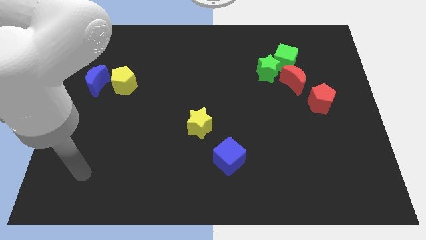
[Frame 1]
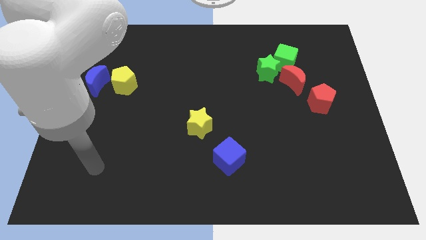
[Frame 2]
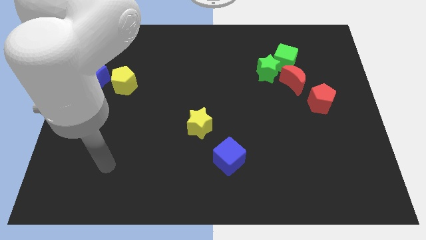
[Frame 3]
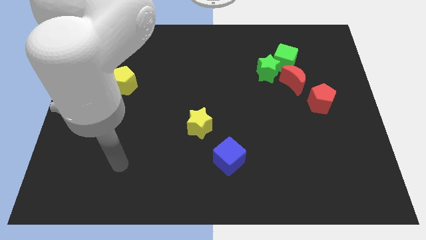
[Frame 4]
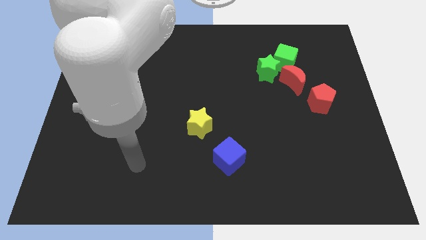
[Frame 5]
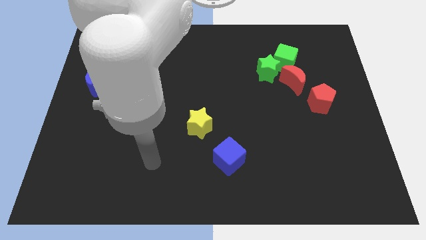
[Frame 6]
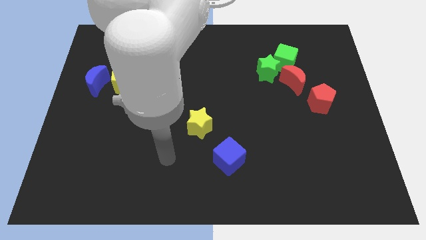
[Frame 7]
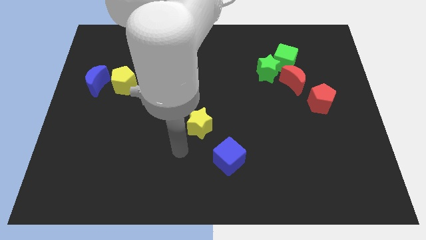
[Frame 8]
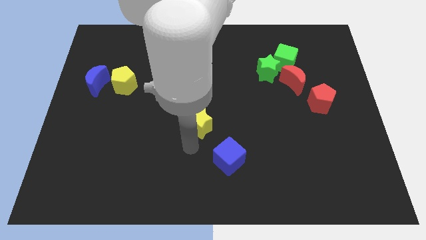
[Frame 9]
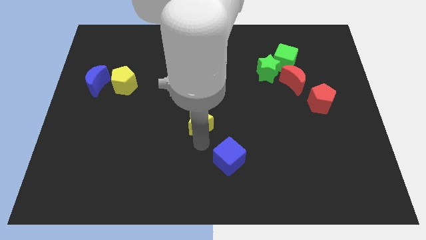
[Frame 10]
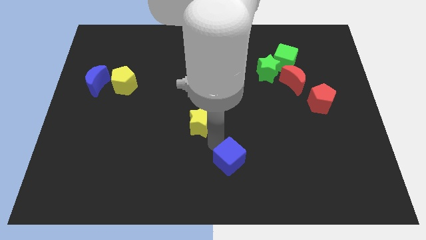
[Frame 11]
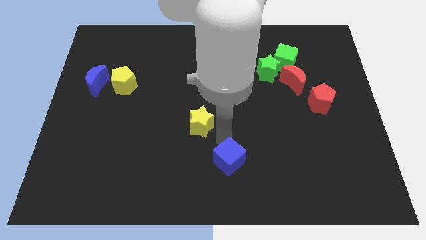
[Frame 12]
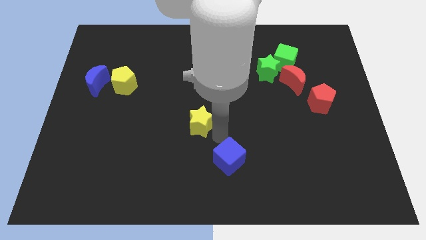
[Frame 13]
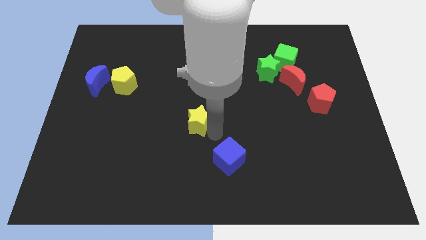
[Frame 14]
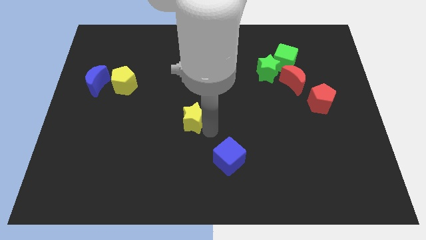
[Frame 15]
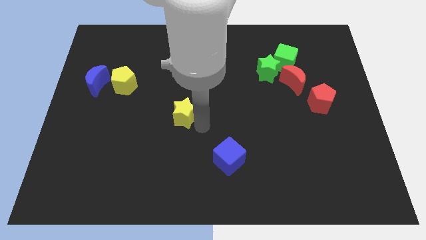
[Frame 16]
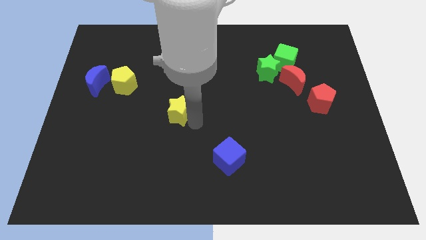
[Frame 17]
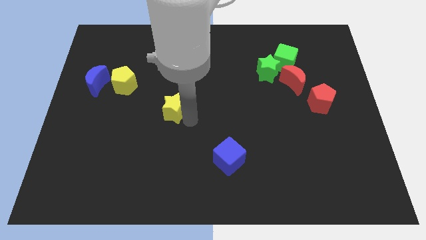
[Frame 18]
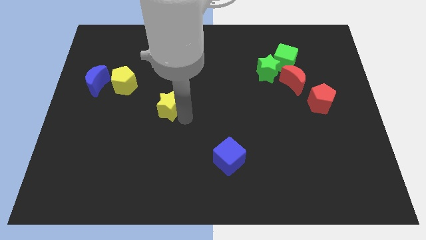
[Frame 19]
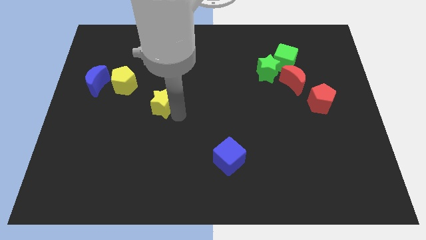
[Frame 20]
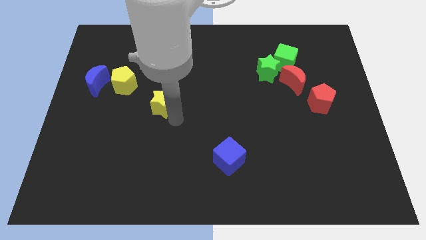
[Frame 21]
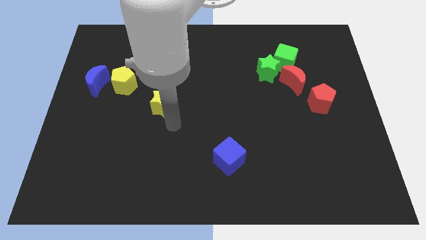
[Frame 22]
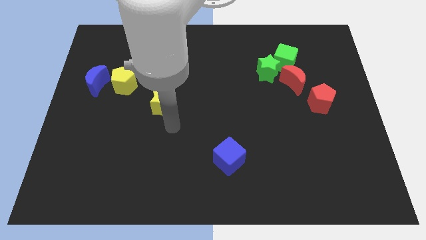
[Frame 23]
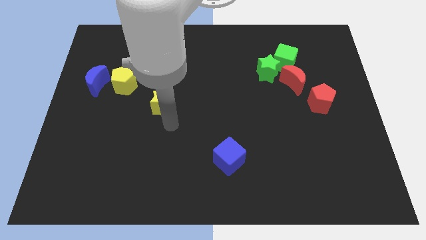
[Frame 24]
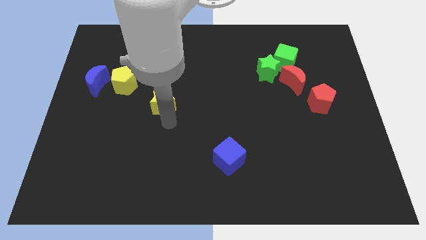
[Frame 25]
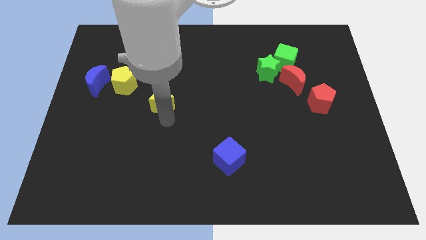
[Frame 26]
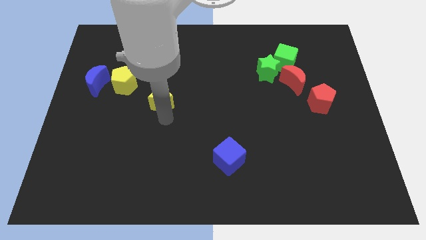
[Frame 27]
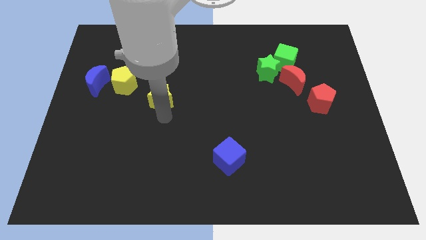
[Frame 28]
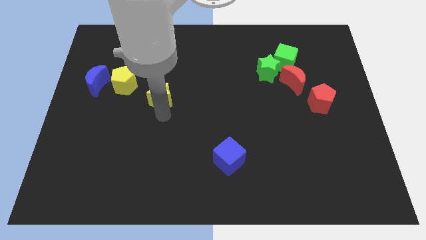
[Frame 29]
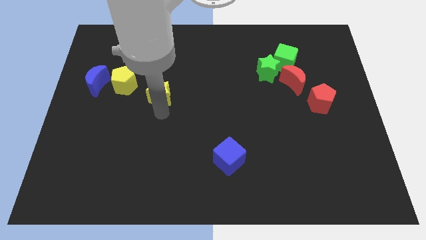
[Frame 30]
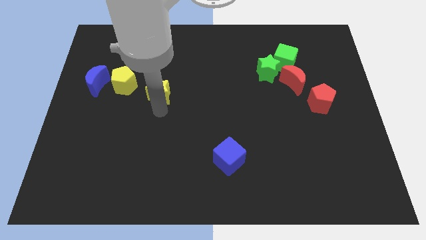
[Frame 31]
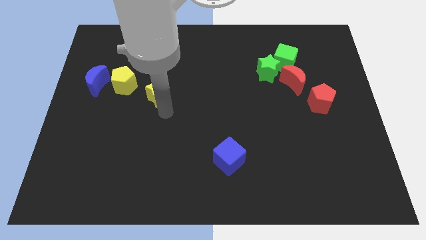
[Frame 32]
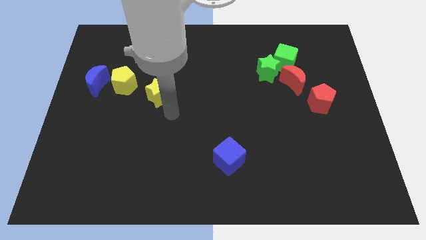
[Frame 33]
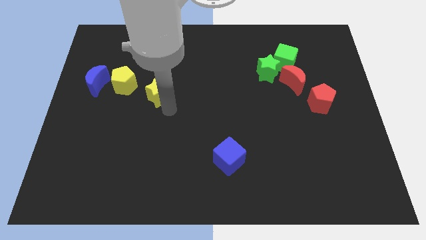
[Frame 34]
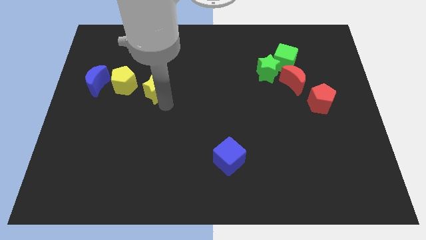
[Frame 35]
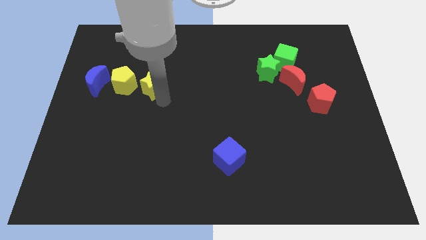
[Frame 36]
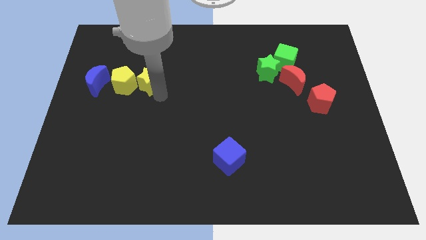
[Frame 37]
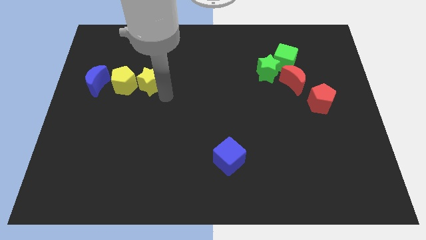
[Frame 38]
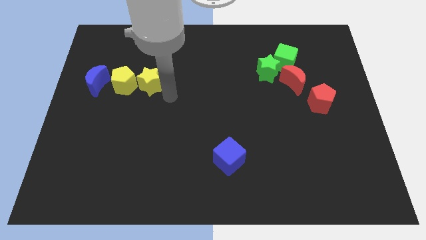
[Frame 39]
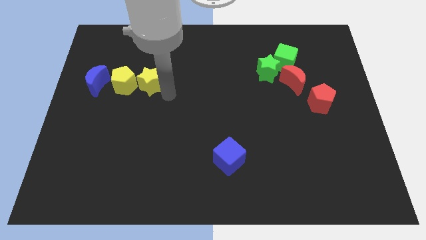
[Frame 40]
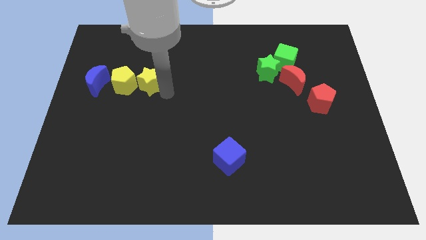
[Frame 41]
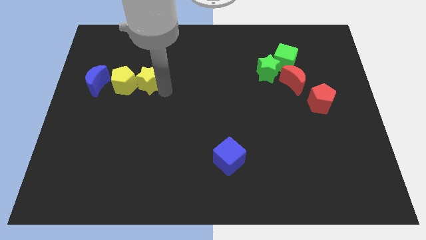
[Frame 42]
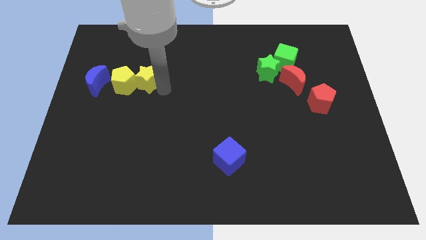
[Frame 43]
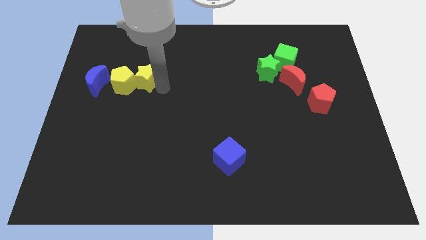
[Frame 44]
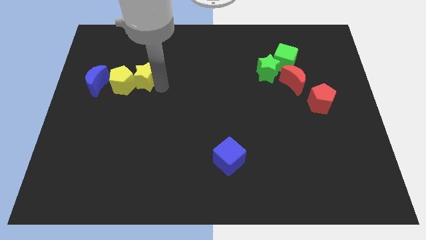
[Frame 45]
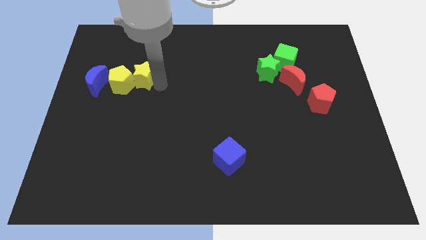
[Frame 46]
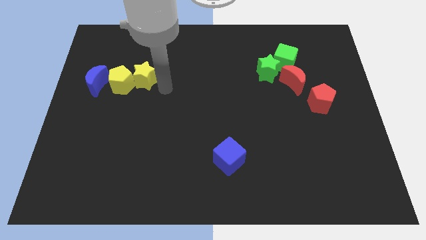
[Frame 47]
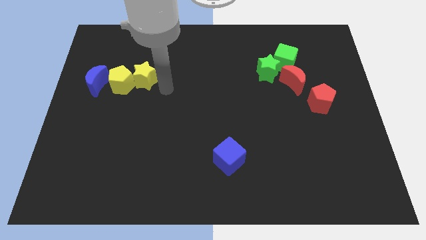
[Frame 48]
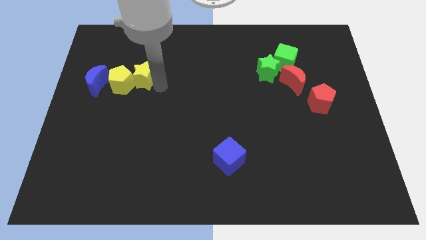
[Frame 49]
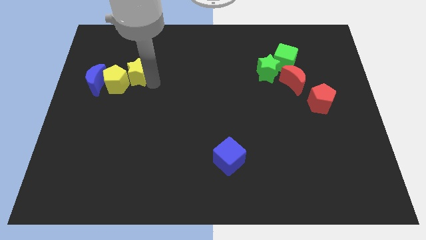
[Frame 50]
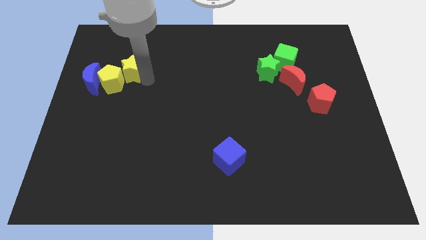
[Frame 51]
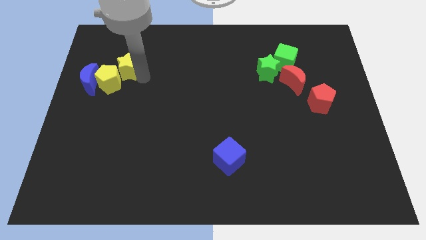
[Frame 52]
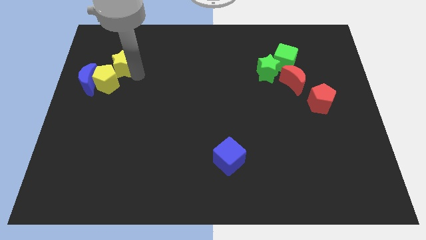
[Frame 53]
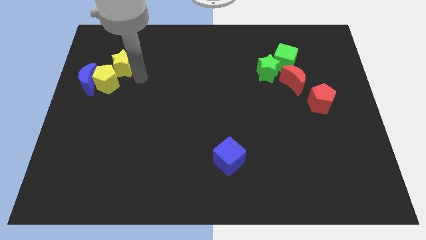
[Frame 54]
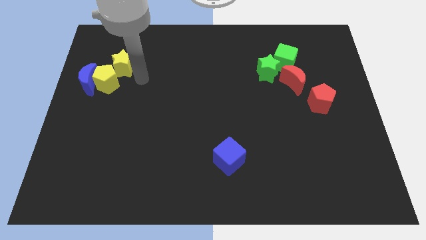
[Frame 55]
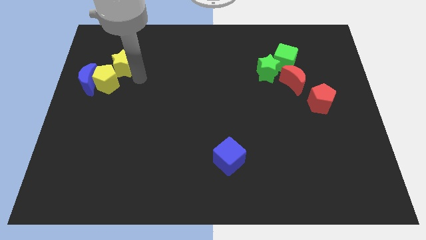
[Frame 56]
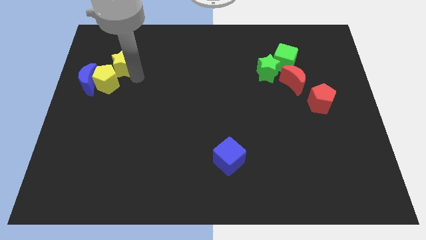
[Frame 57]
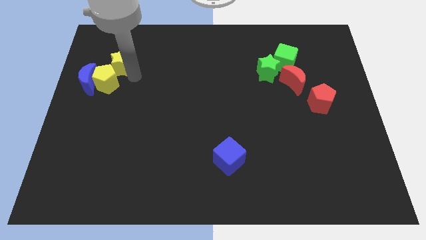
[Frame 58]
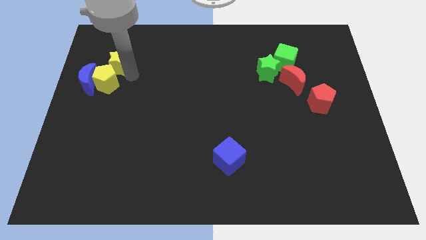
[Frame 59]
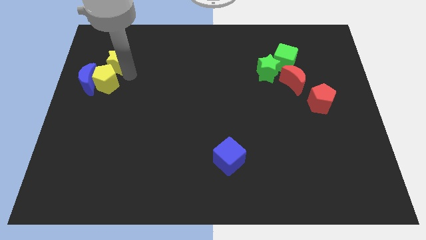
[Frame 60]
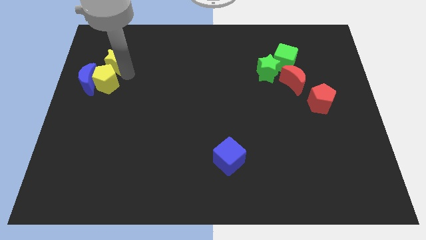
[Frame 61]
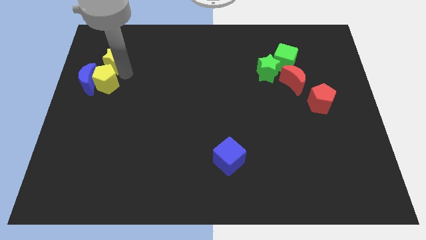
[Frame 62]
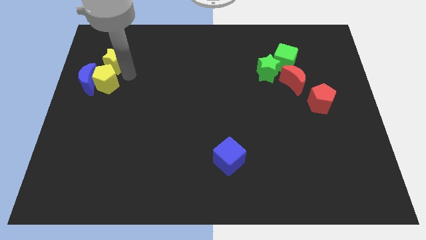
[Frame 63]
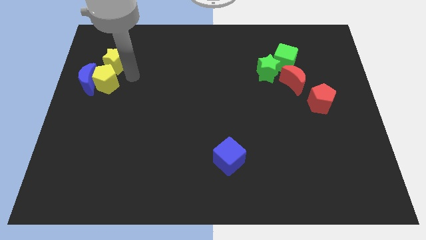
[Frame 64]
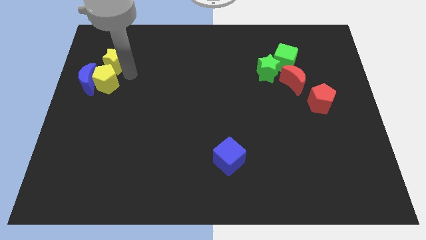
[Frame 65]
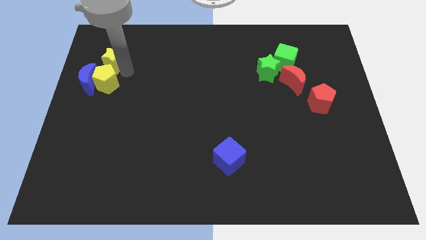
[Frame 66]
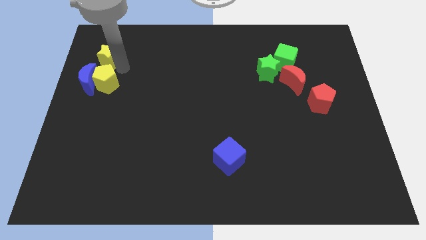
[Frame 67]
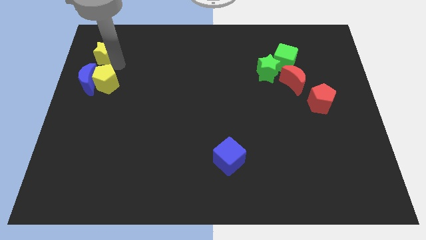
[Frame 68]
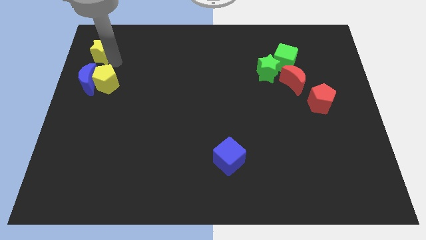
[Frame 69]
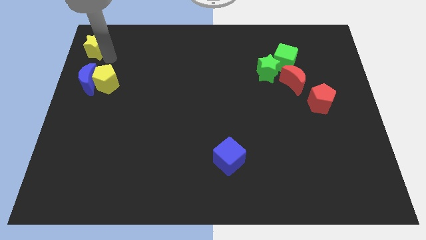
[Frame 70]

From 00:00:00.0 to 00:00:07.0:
slide the yellow star to the top left of the board

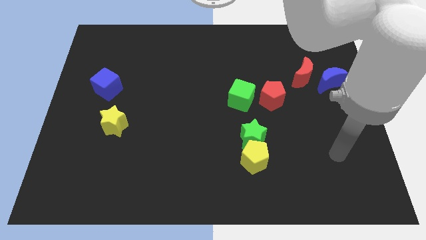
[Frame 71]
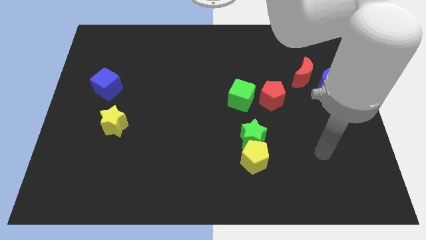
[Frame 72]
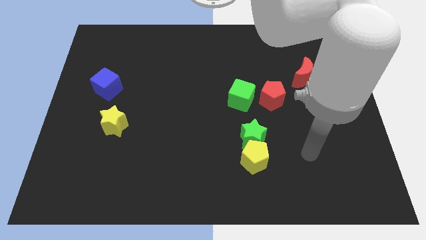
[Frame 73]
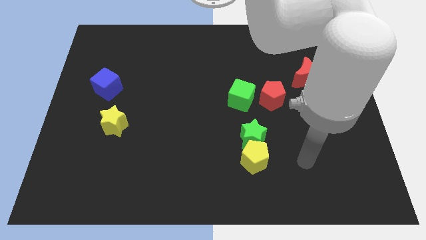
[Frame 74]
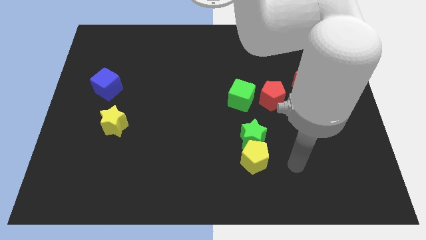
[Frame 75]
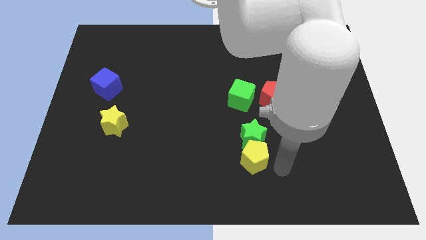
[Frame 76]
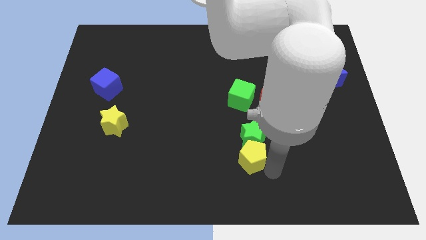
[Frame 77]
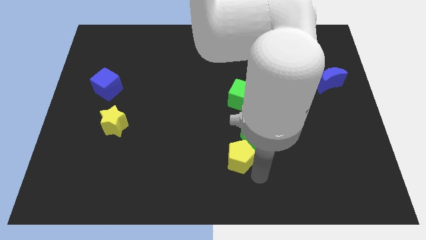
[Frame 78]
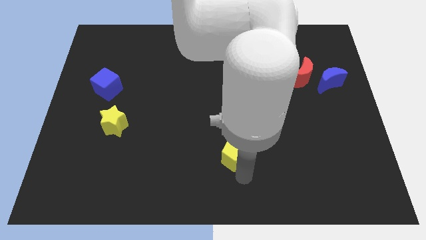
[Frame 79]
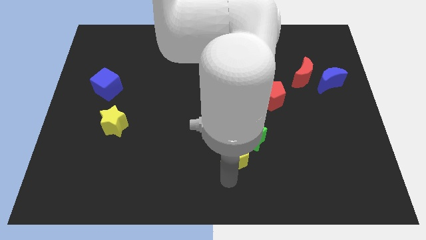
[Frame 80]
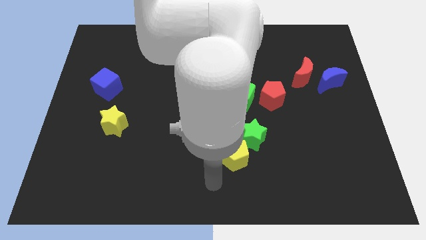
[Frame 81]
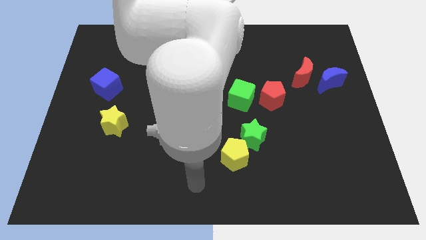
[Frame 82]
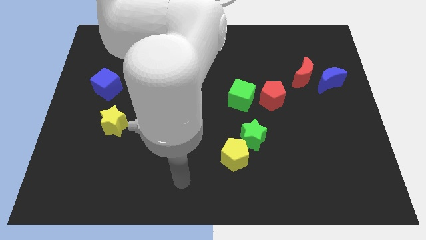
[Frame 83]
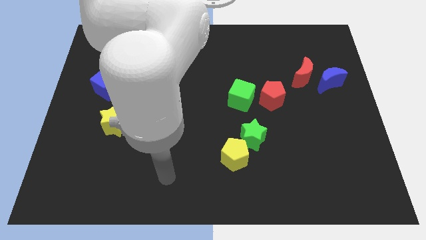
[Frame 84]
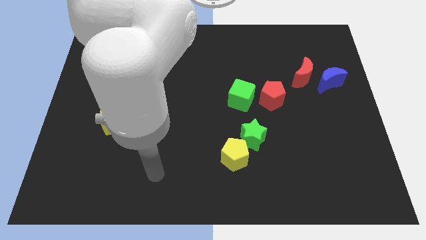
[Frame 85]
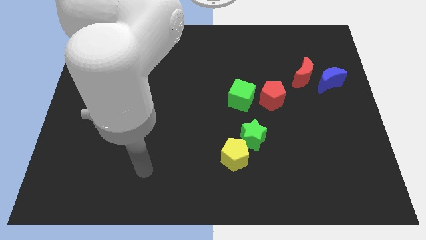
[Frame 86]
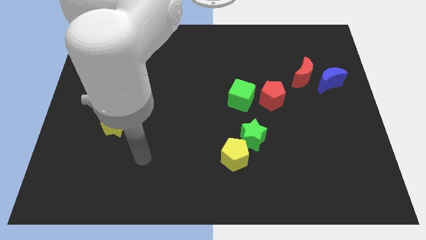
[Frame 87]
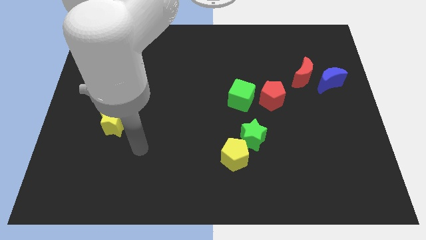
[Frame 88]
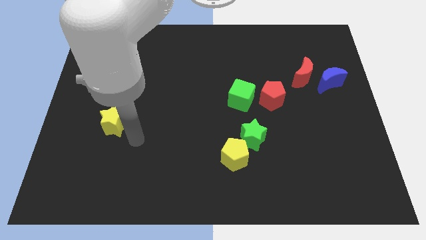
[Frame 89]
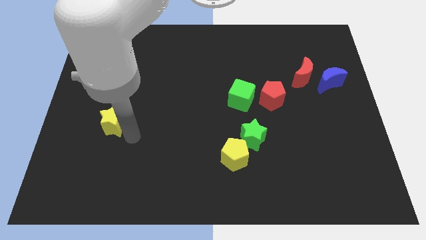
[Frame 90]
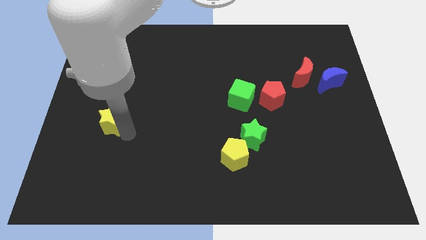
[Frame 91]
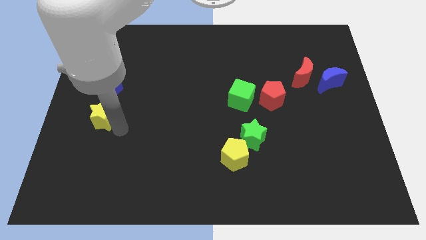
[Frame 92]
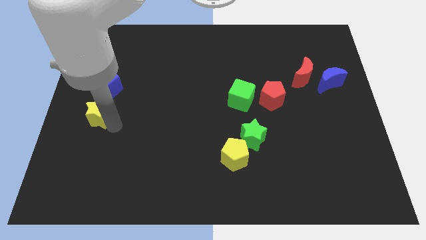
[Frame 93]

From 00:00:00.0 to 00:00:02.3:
slide the yellow star to the left side
